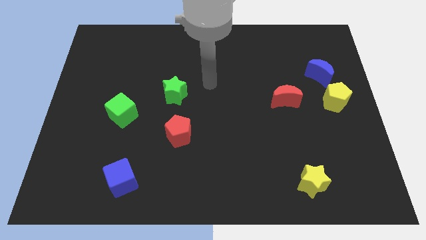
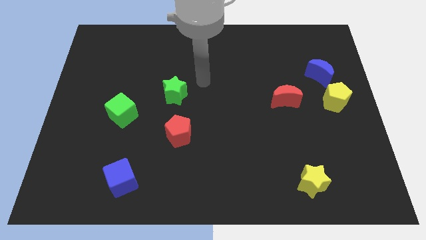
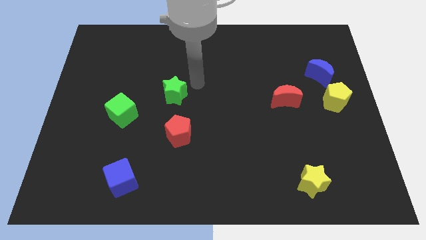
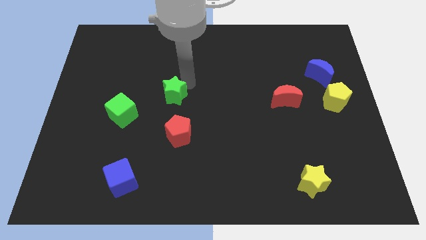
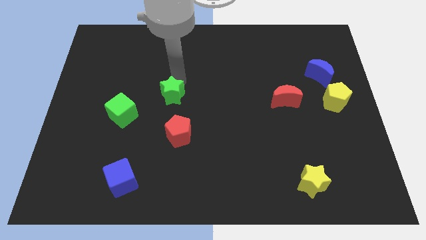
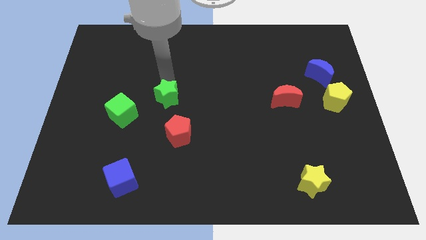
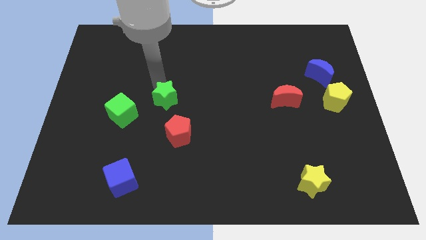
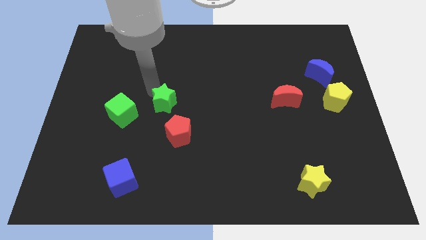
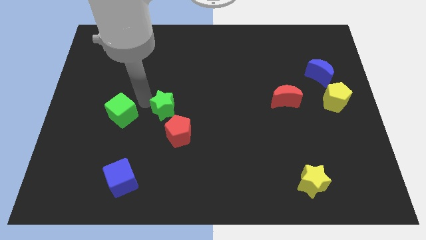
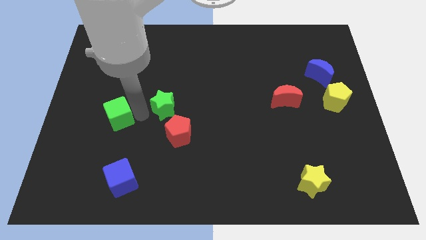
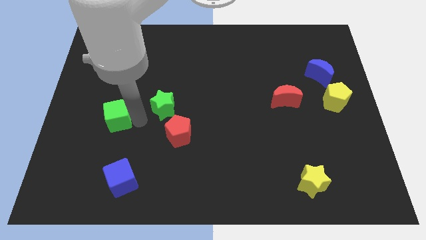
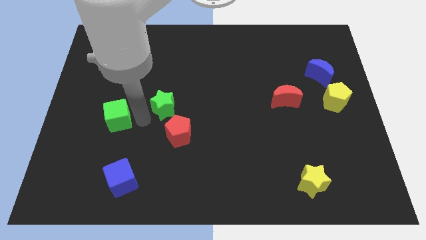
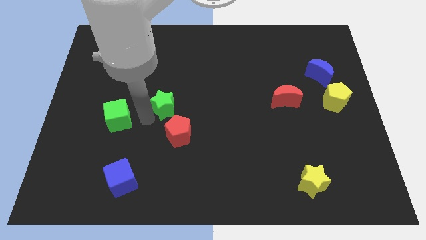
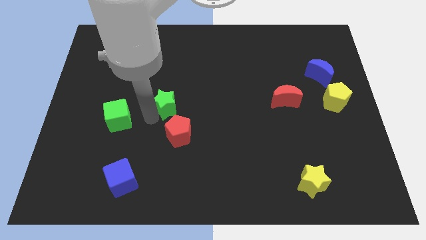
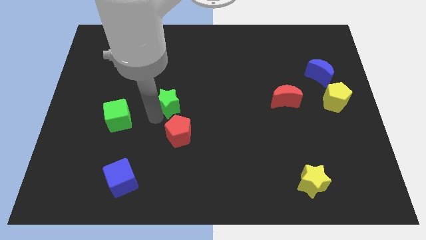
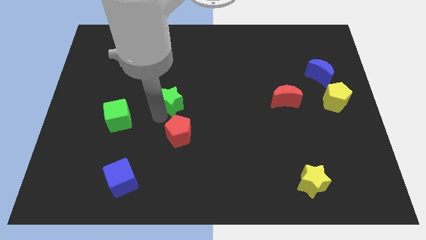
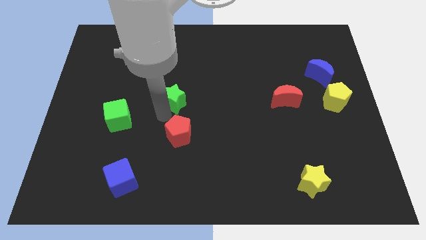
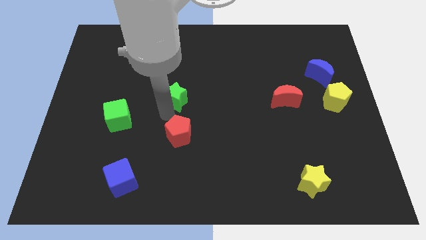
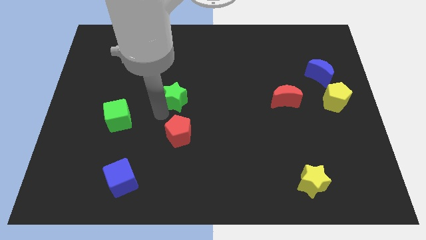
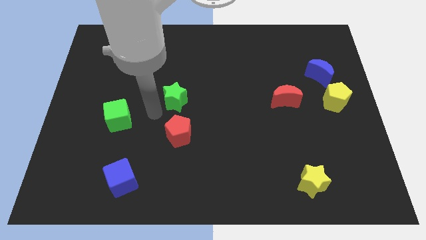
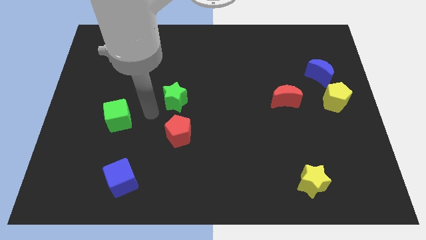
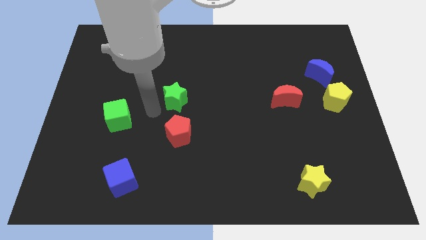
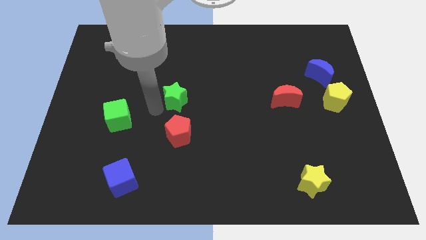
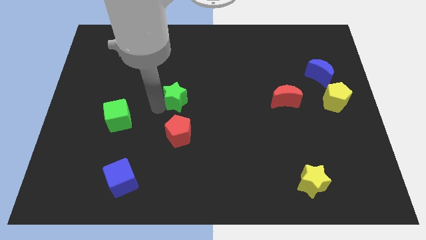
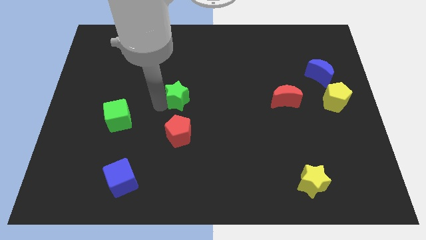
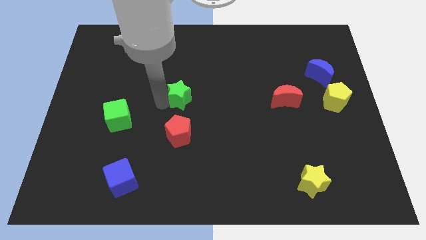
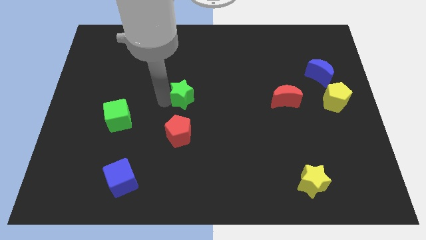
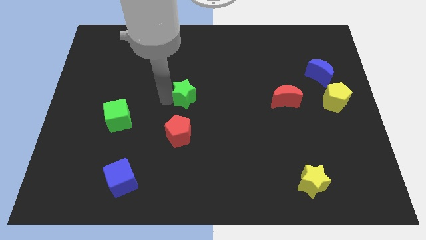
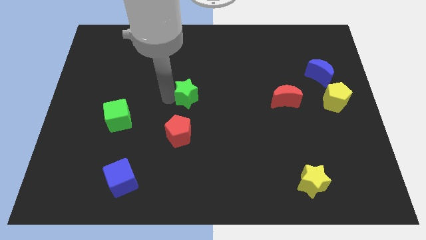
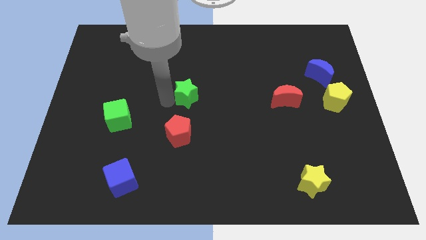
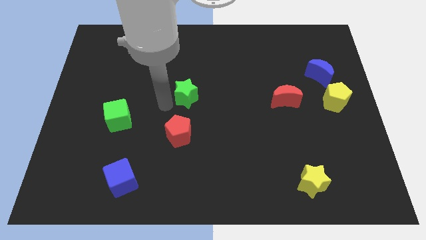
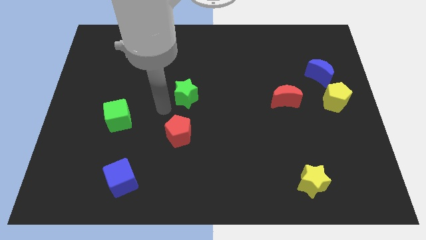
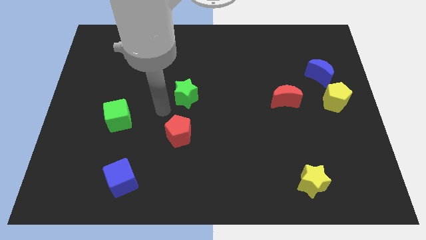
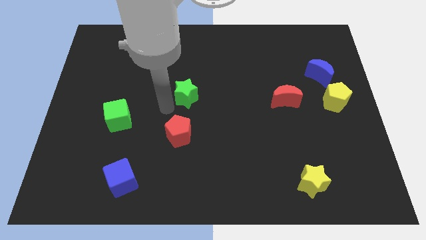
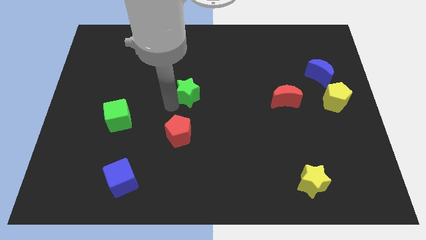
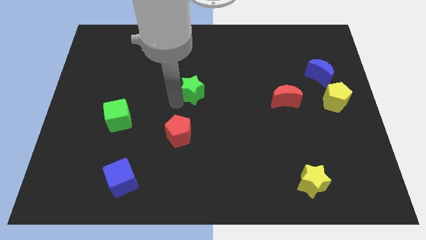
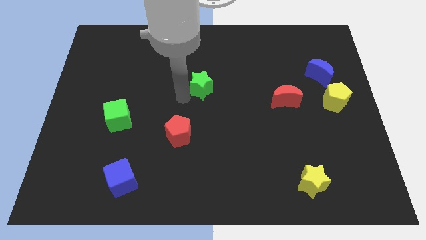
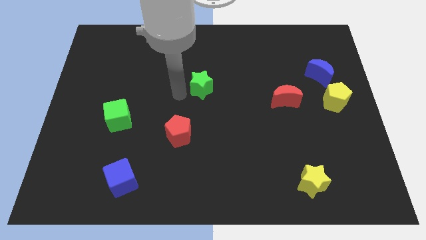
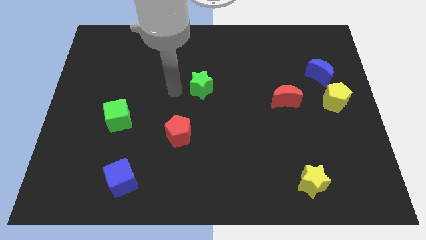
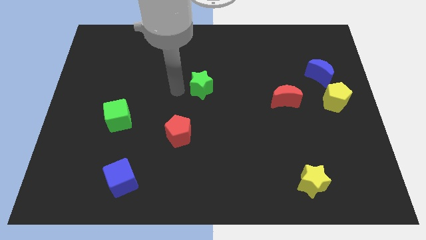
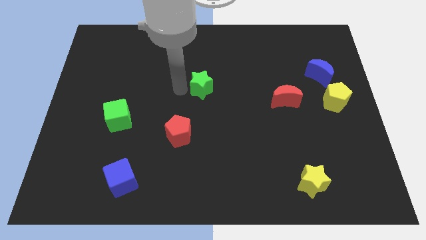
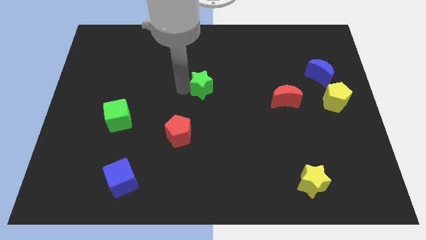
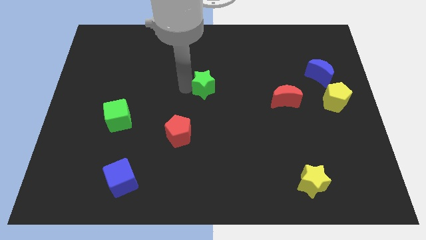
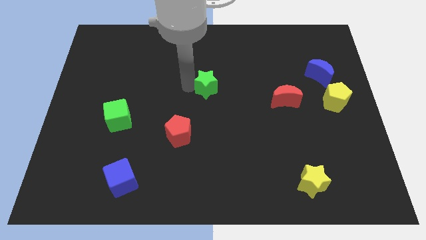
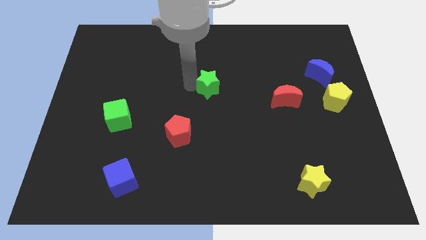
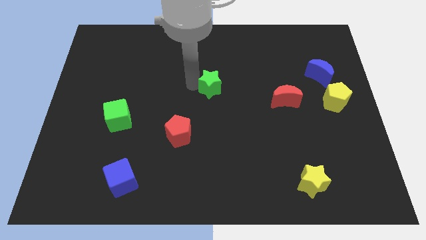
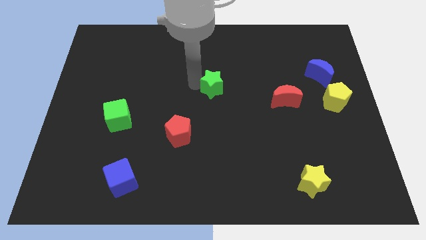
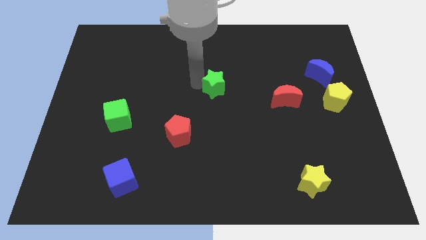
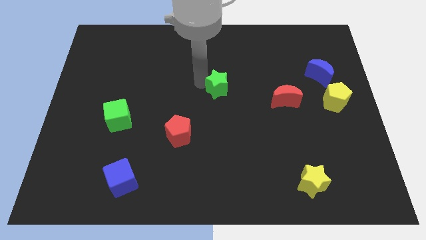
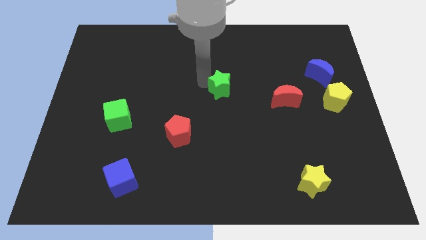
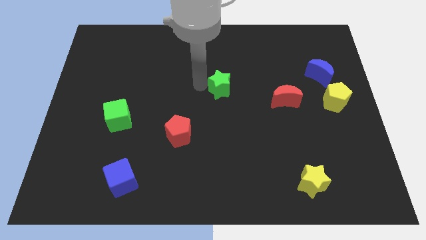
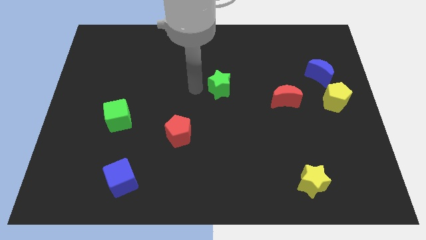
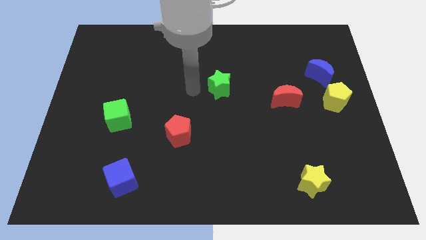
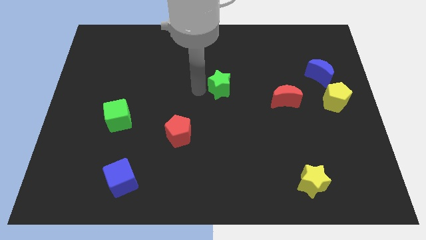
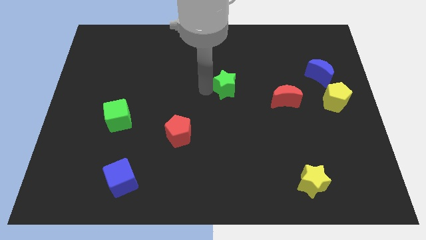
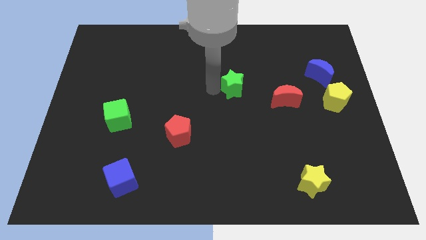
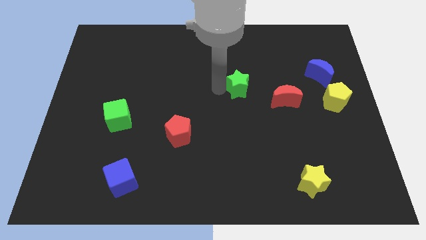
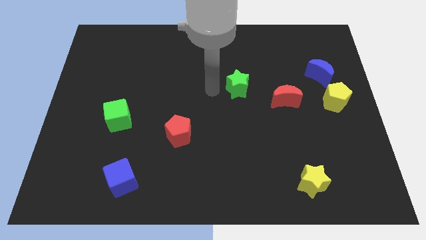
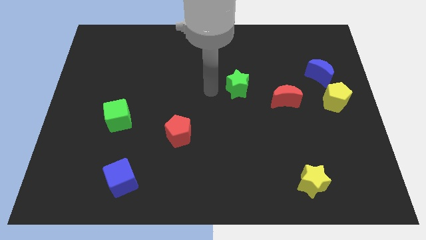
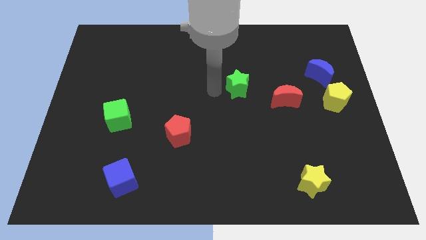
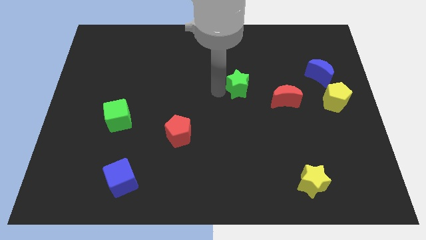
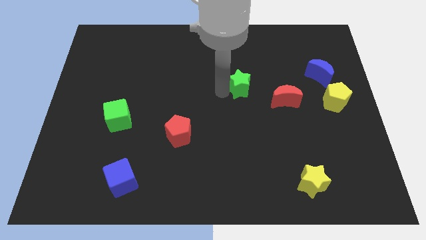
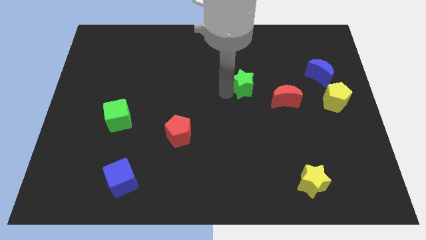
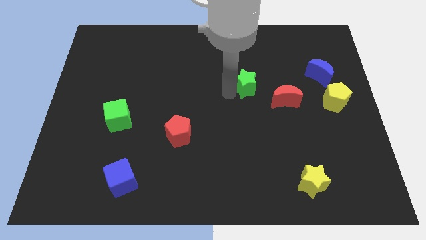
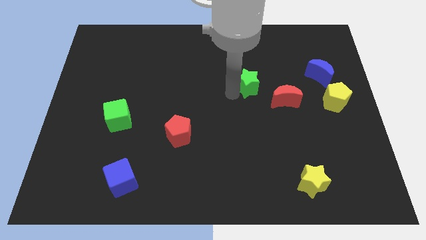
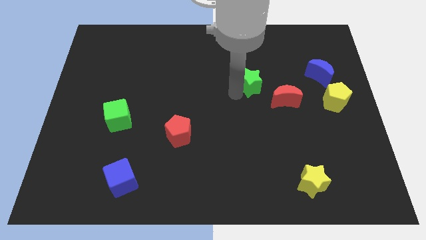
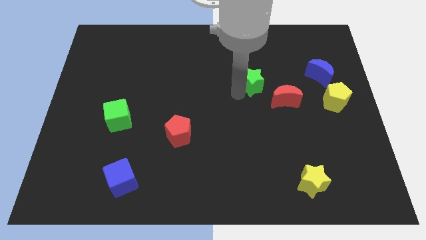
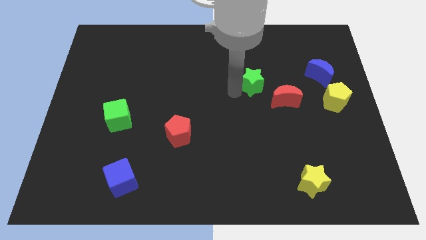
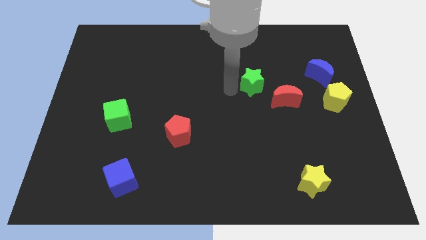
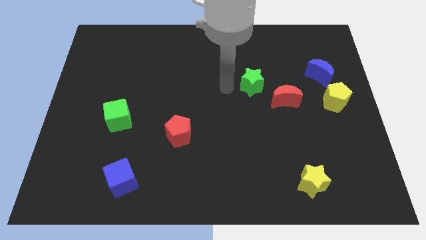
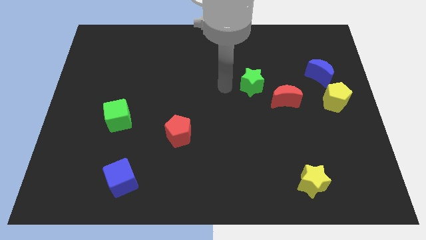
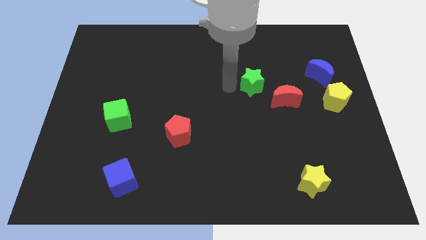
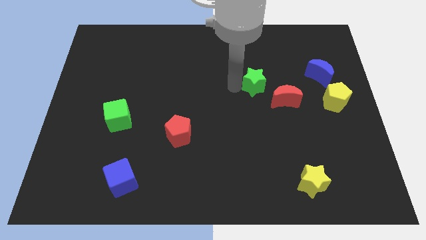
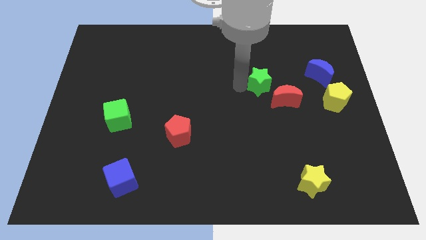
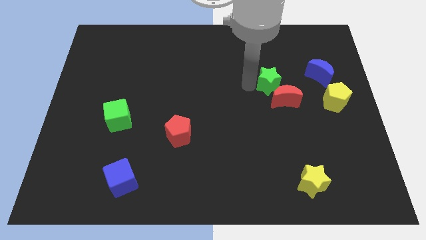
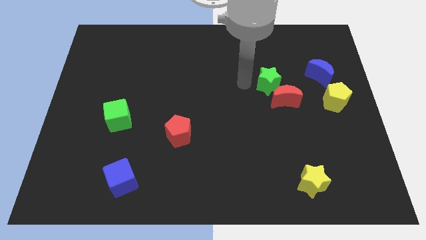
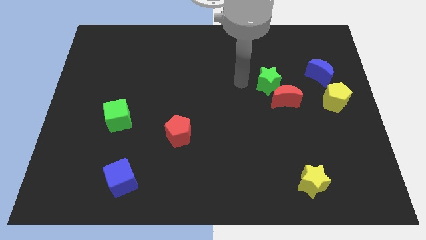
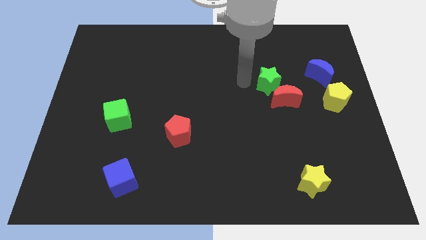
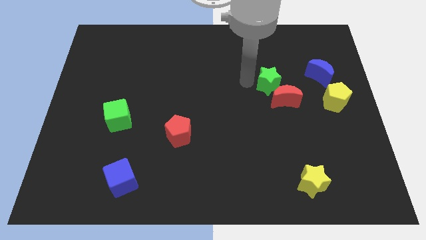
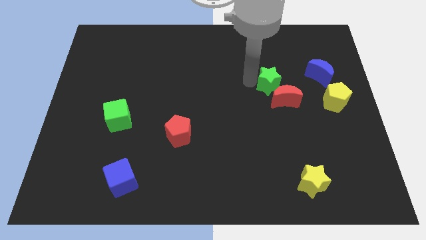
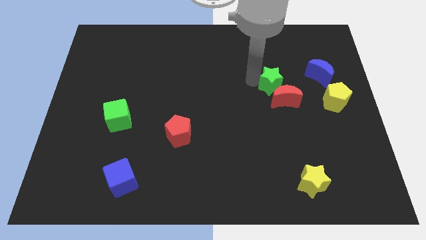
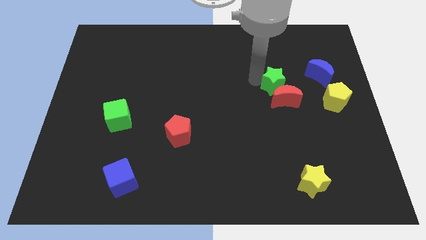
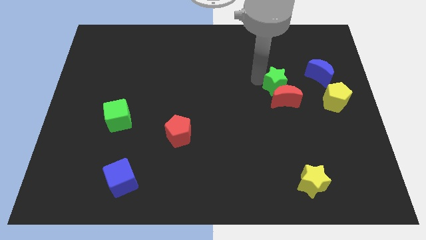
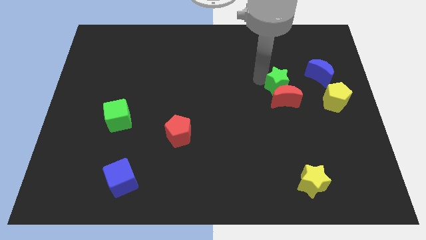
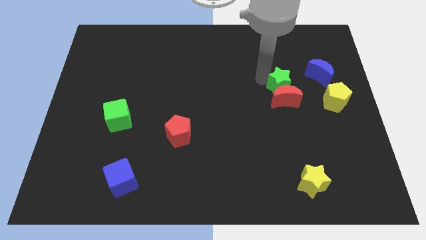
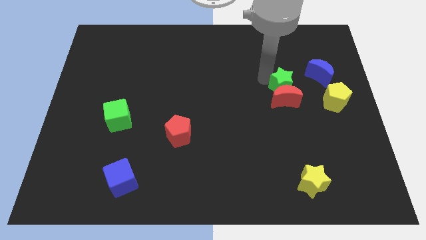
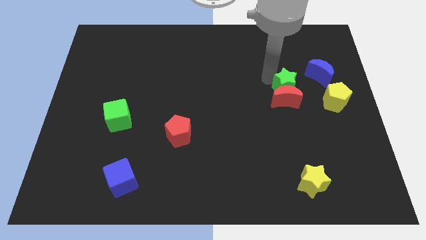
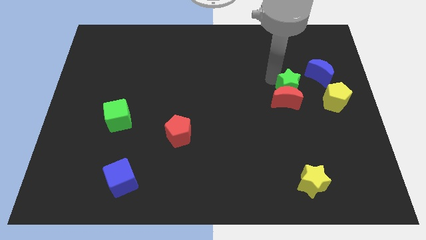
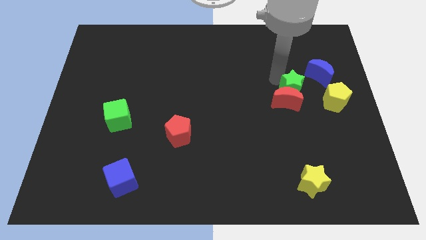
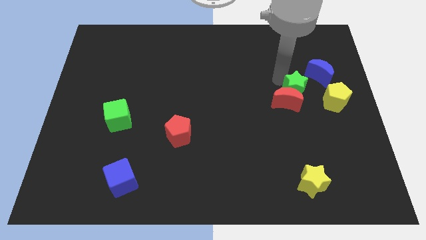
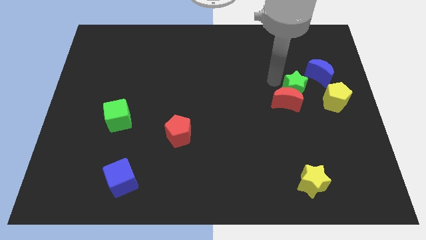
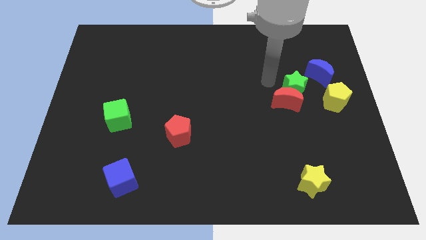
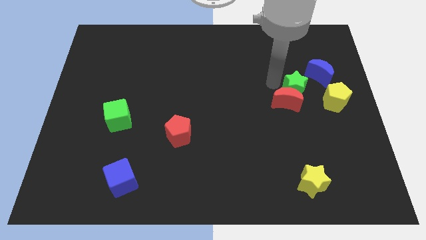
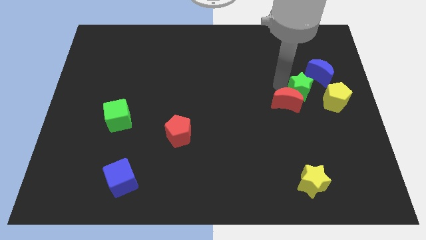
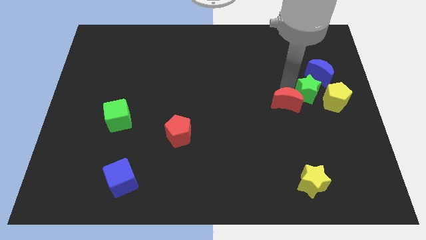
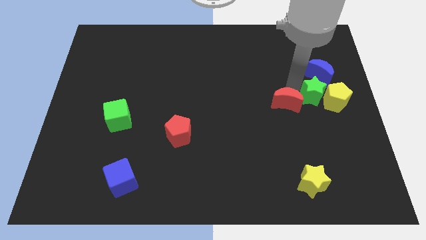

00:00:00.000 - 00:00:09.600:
put the green star next to the yellow pentagon
